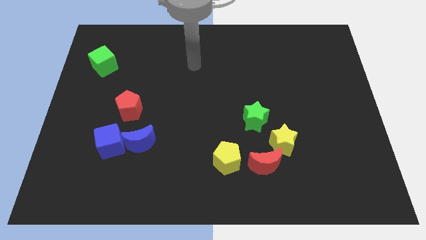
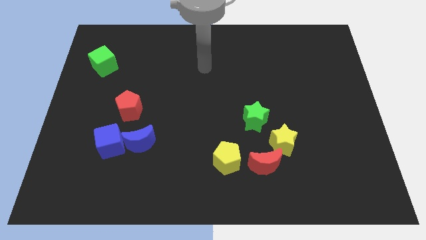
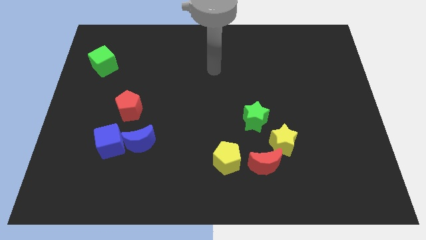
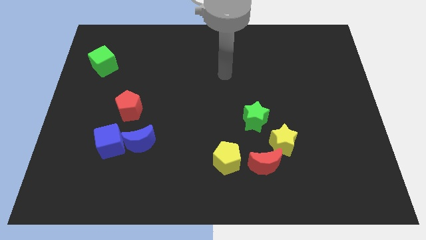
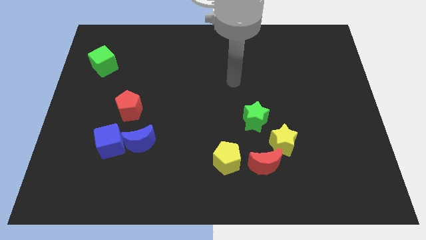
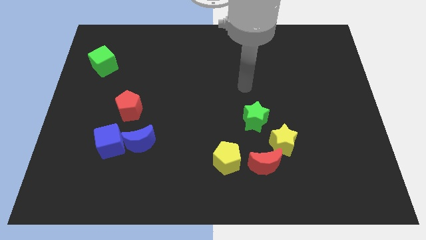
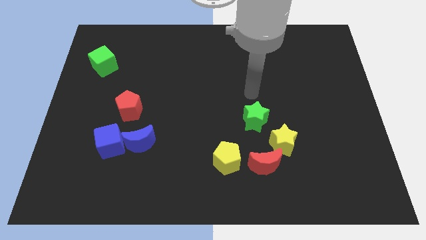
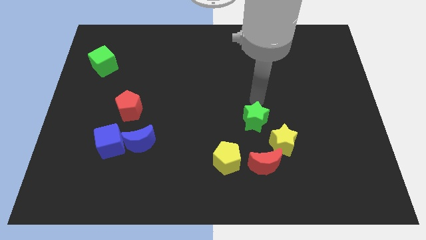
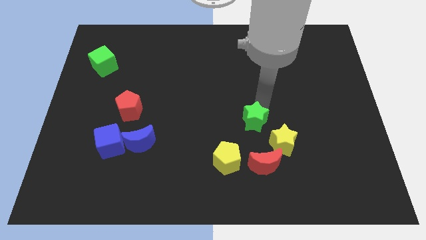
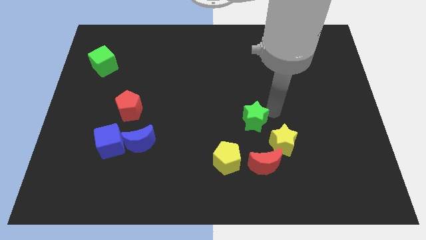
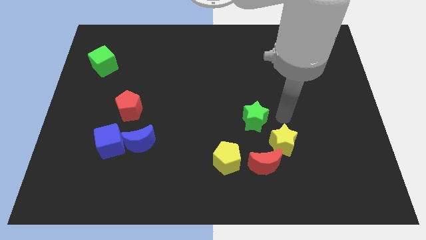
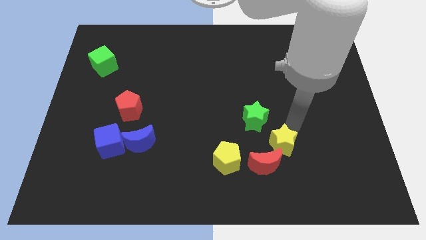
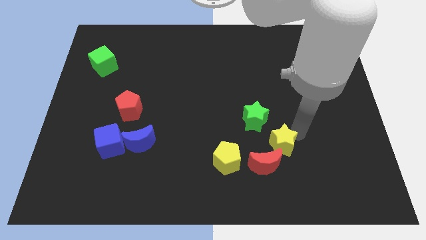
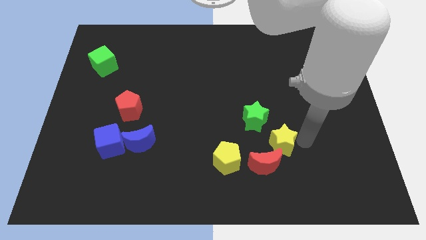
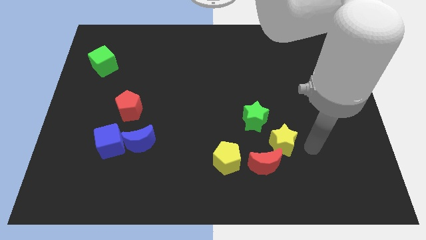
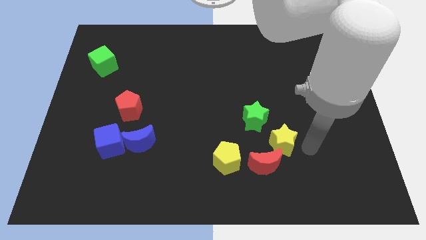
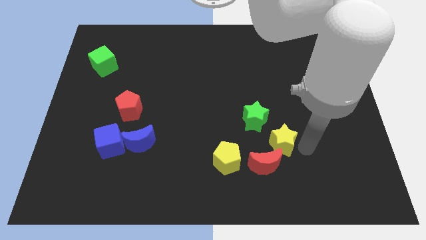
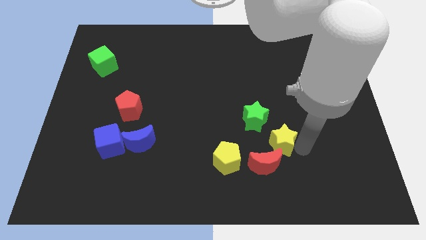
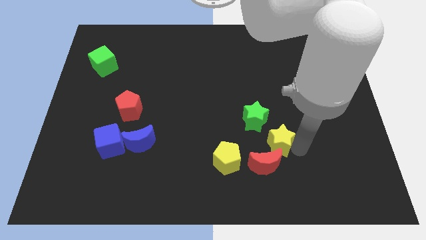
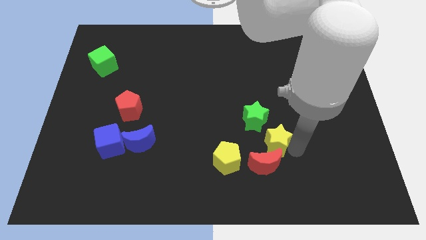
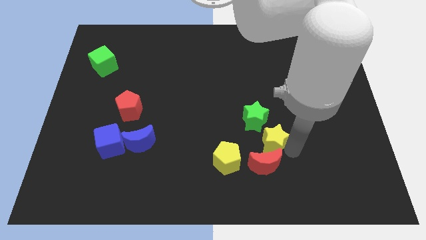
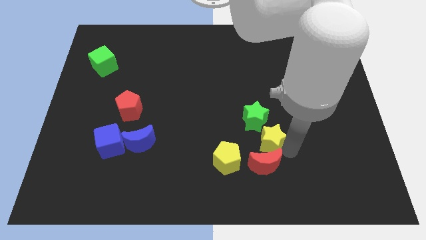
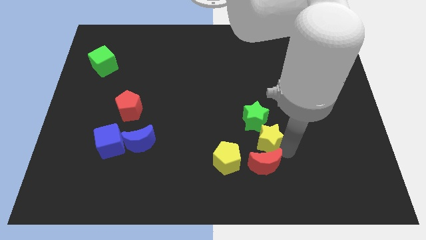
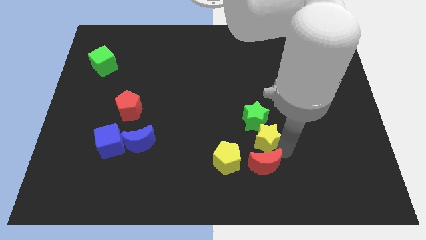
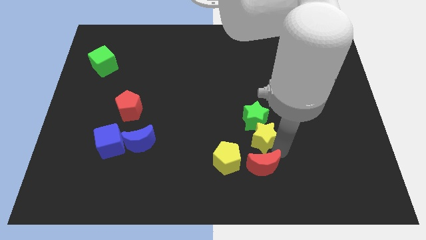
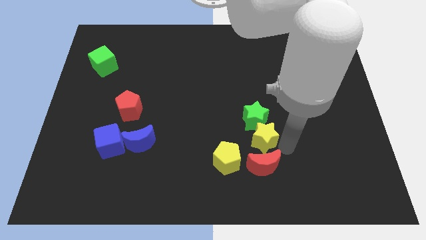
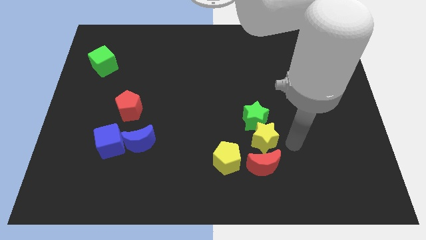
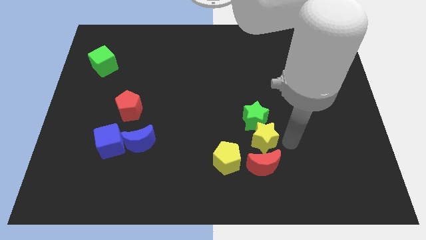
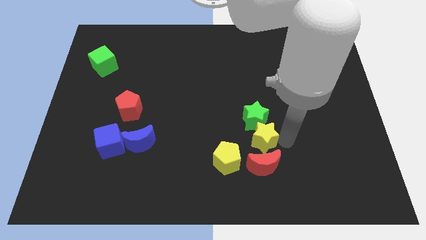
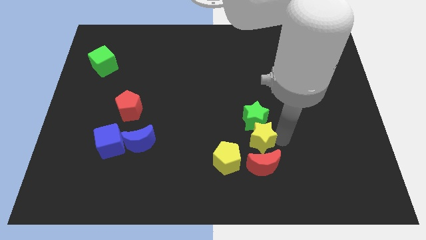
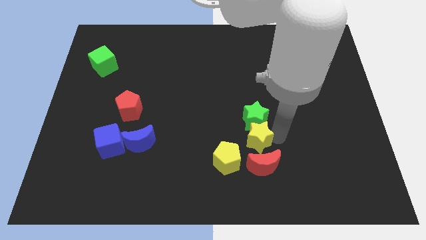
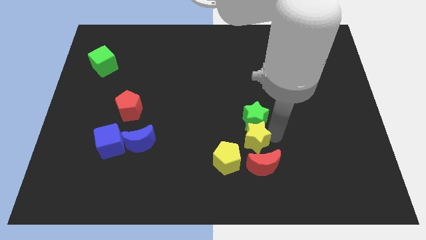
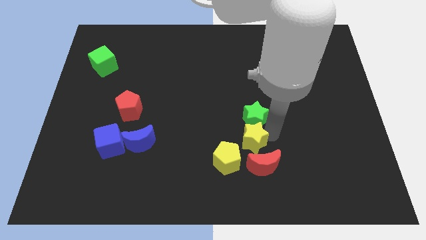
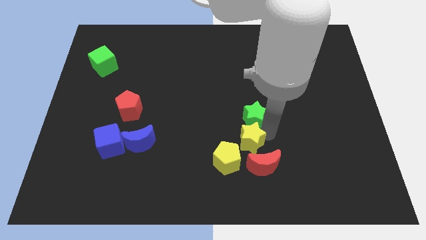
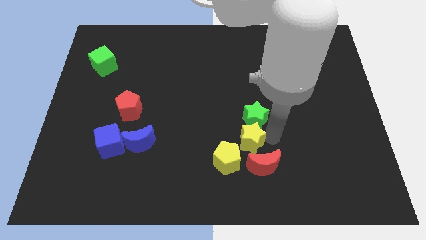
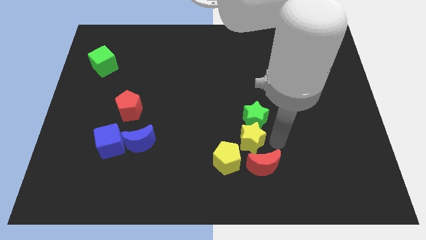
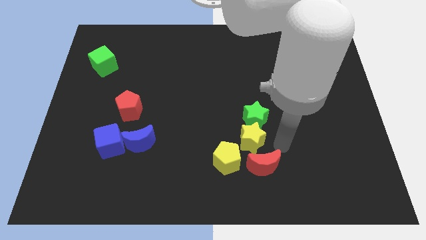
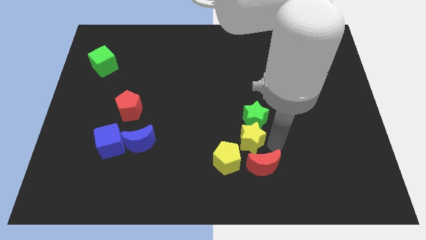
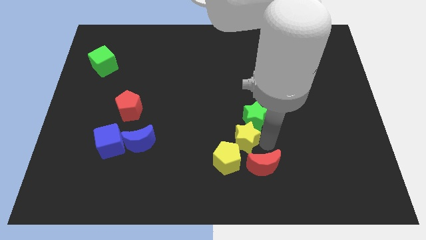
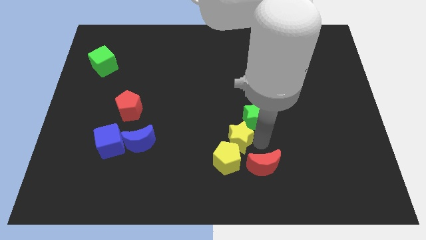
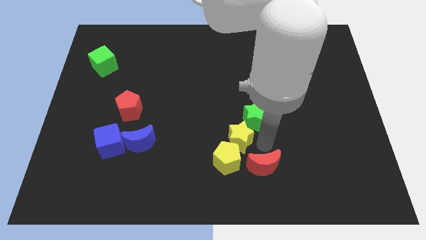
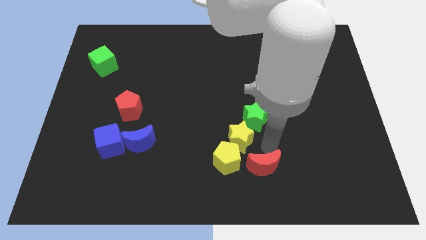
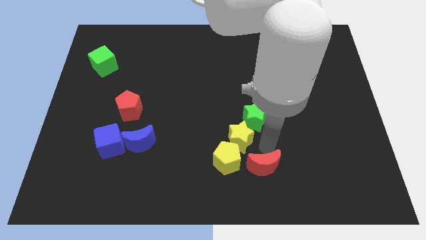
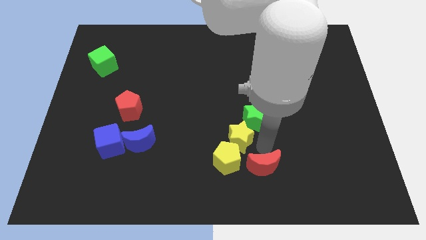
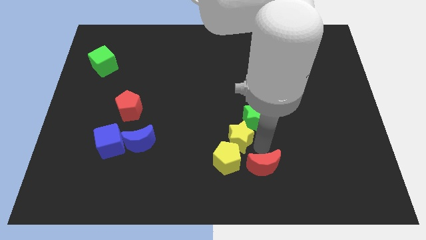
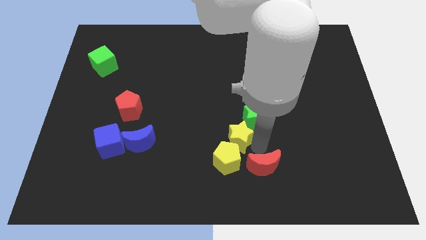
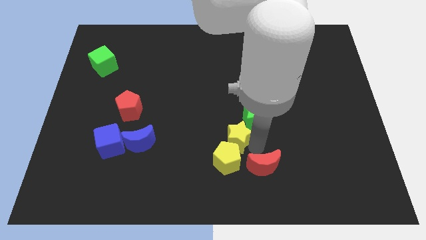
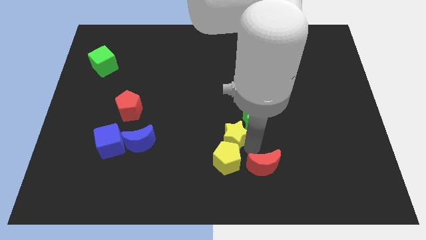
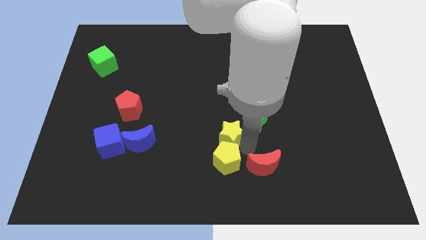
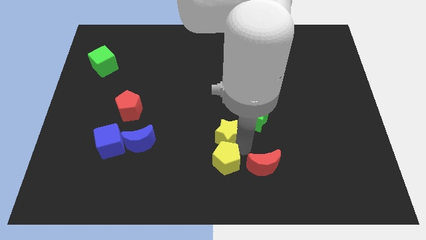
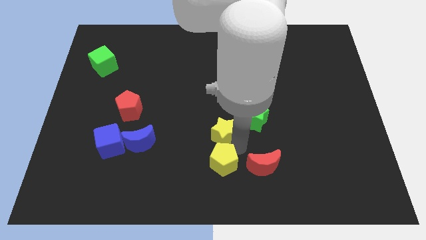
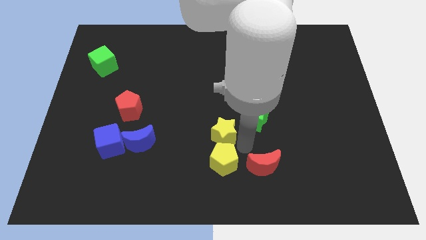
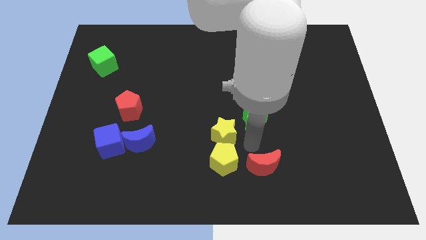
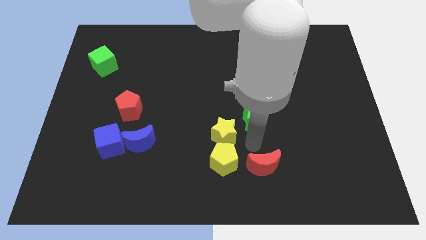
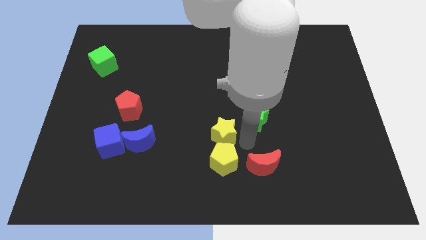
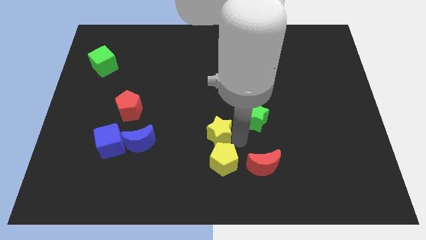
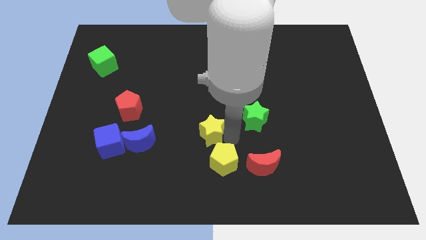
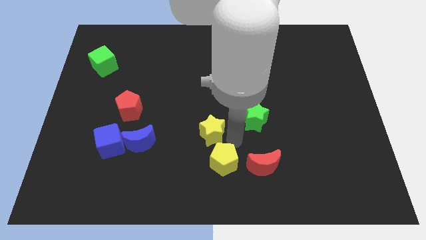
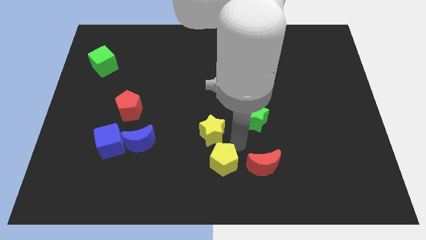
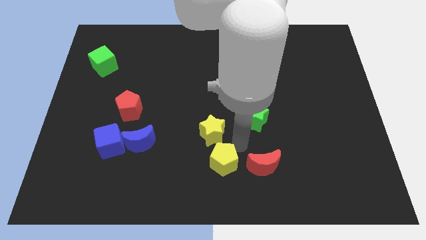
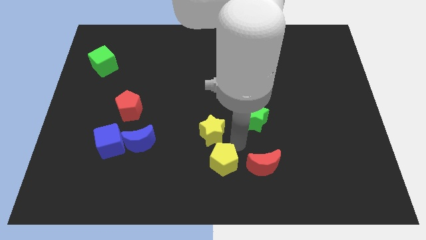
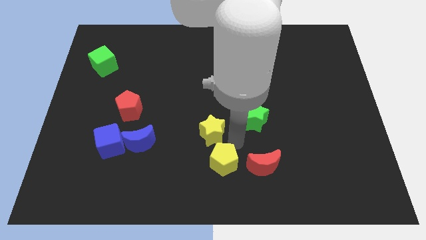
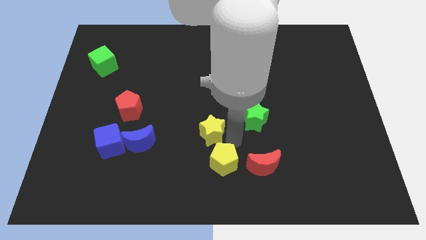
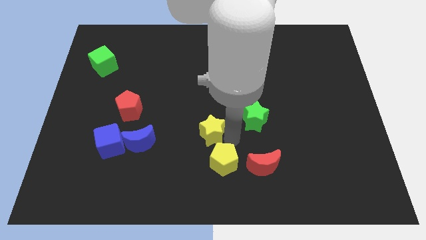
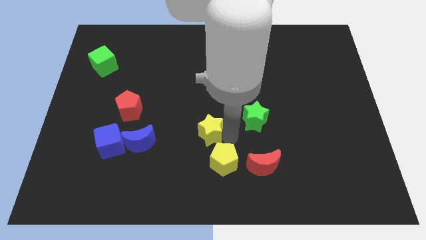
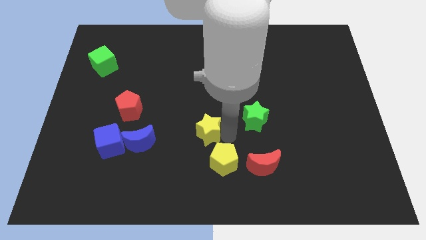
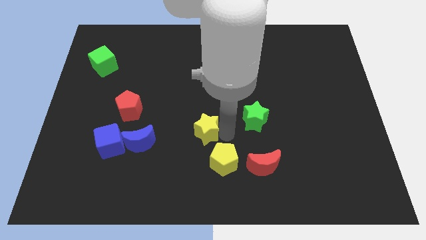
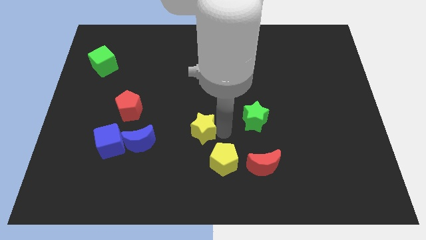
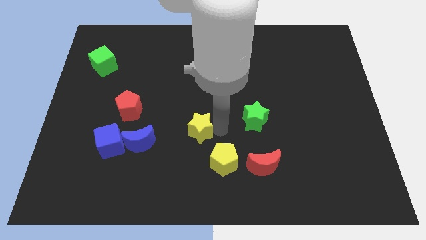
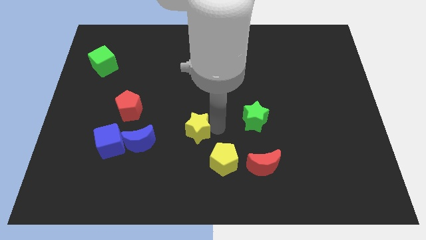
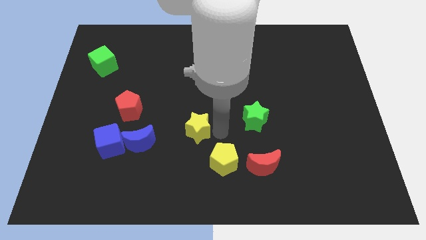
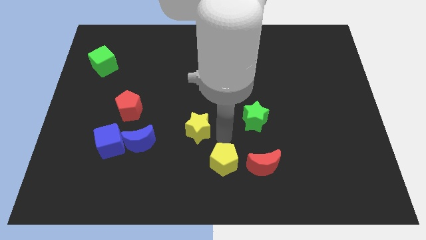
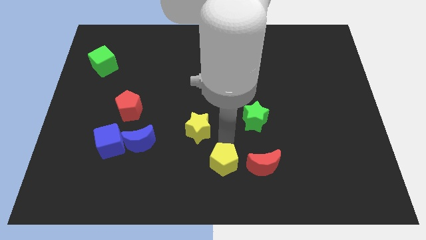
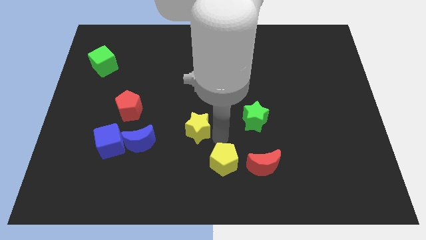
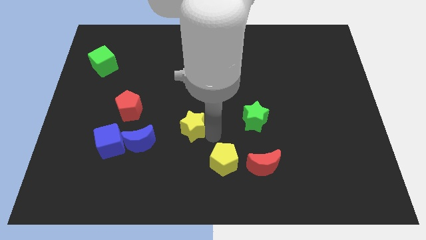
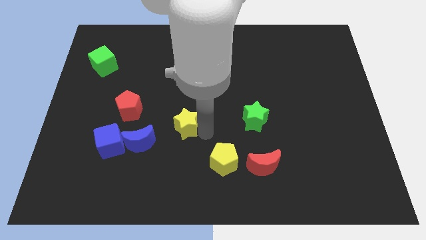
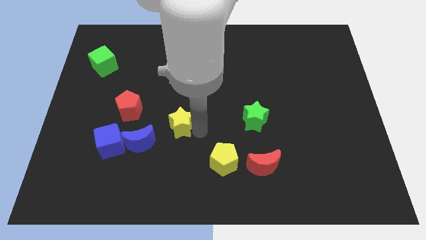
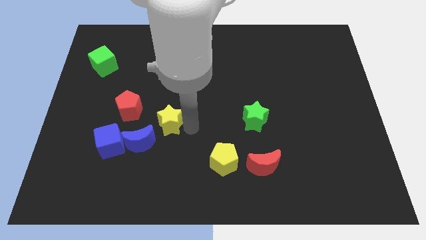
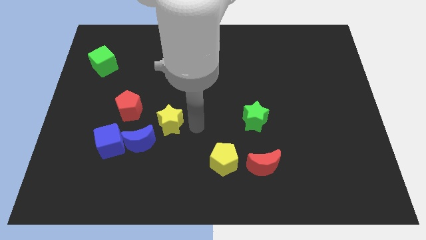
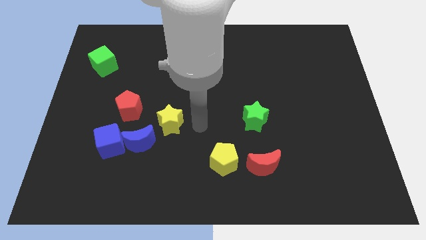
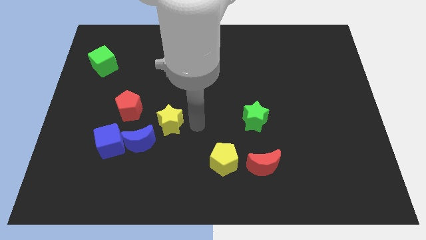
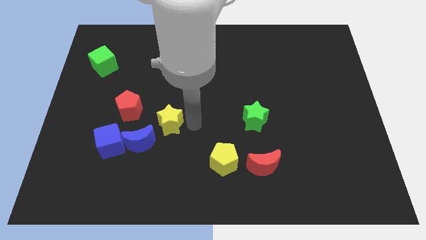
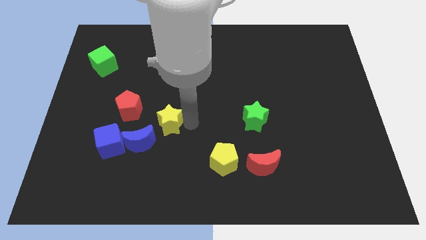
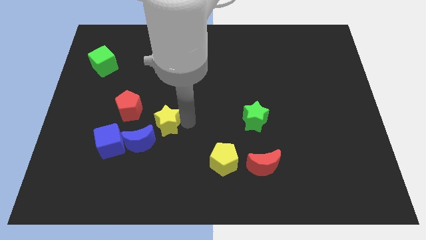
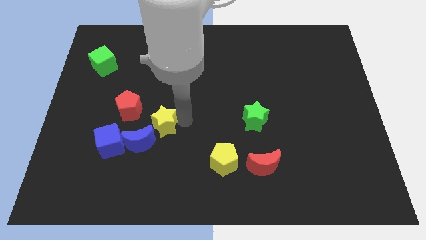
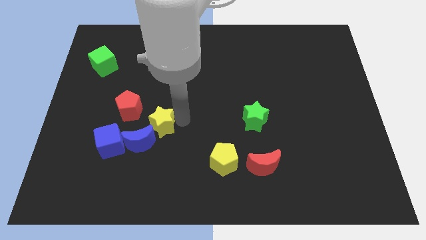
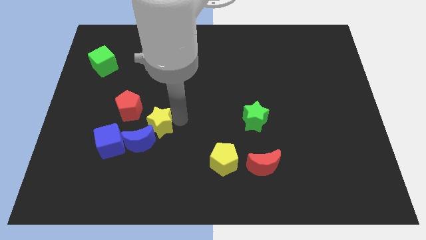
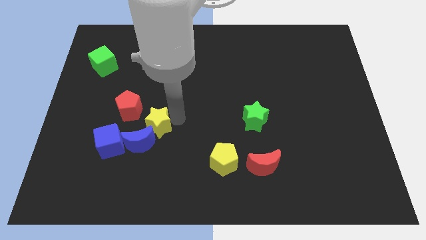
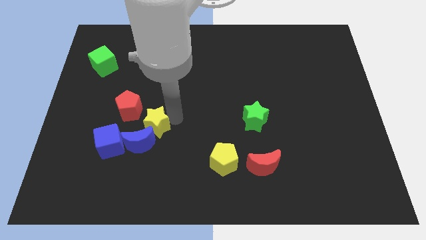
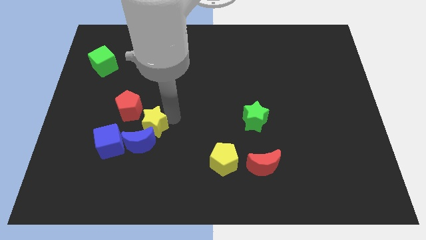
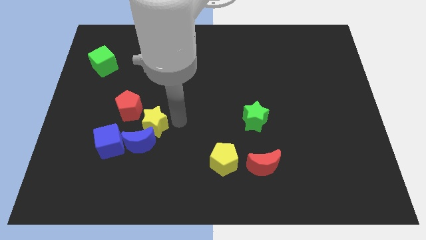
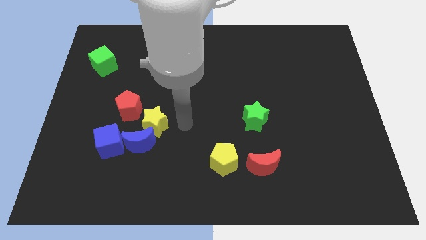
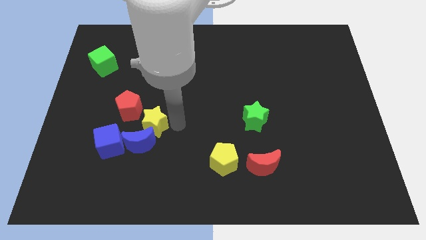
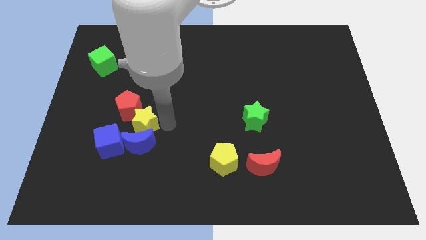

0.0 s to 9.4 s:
push the yellow star to the top left of the blue moon
